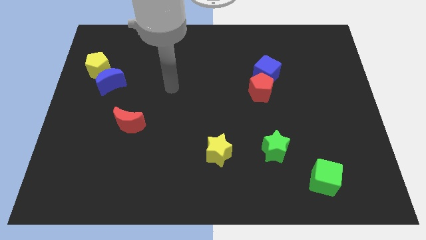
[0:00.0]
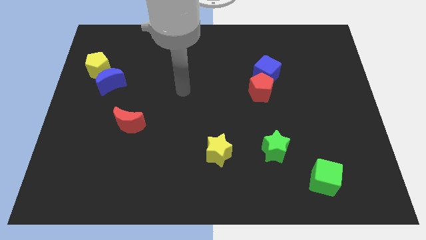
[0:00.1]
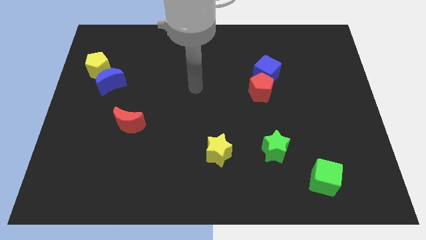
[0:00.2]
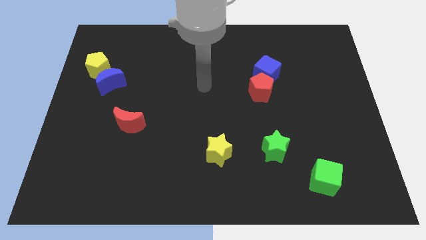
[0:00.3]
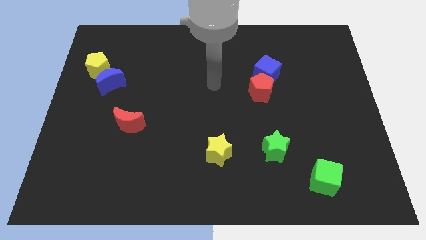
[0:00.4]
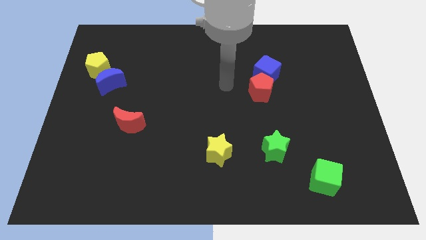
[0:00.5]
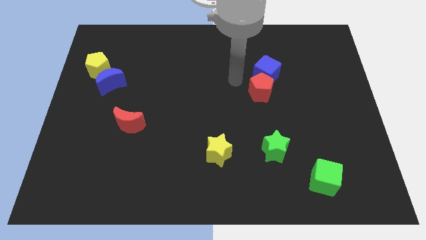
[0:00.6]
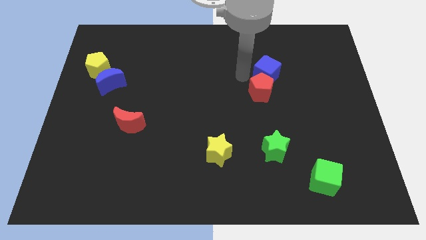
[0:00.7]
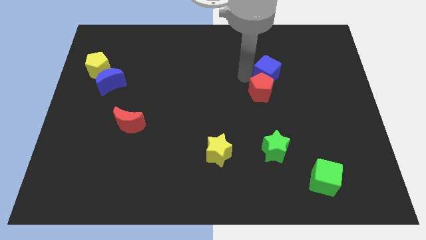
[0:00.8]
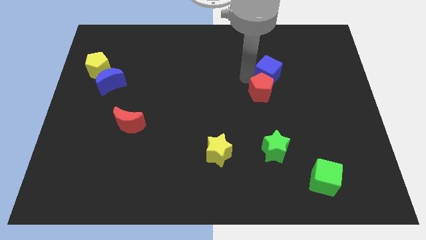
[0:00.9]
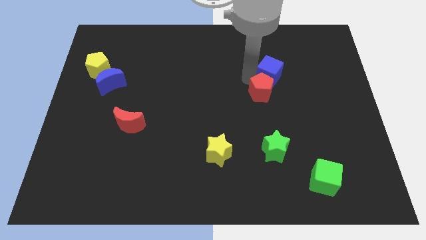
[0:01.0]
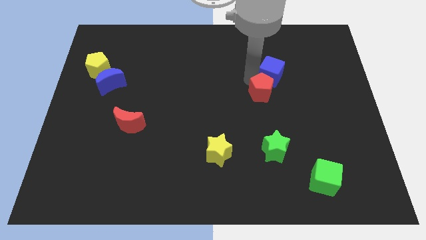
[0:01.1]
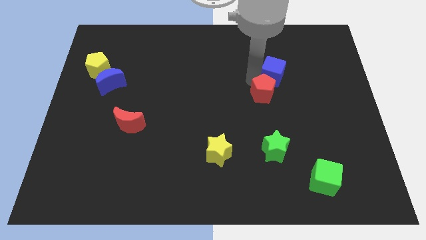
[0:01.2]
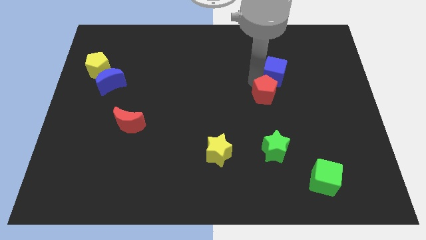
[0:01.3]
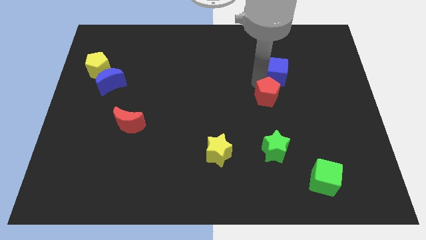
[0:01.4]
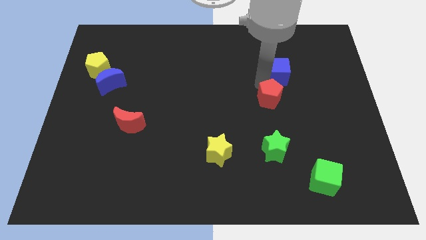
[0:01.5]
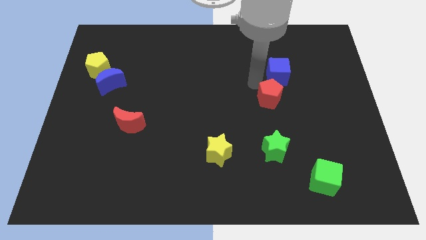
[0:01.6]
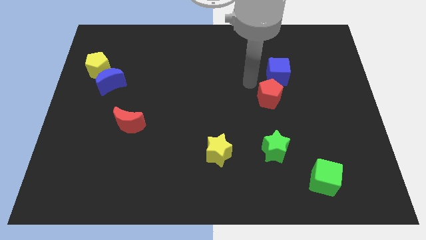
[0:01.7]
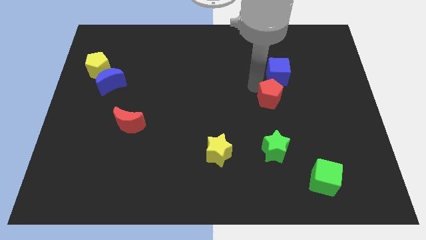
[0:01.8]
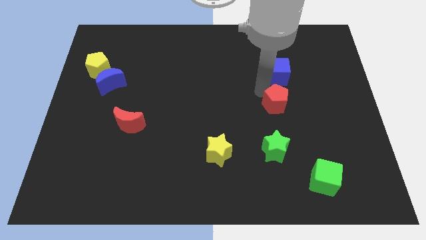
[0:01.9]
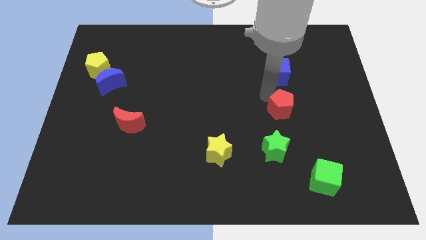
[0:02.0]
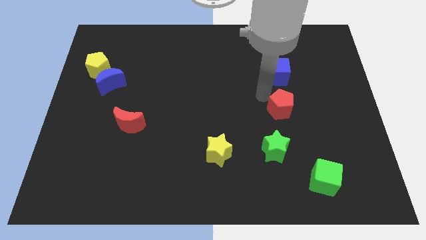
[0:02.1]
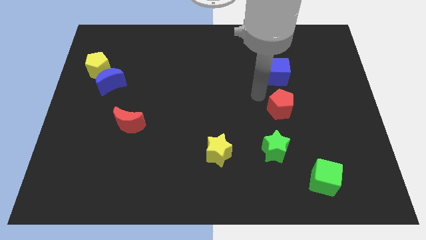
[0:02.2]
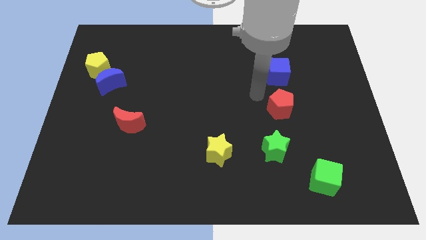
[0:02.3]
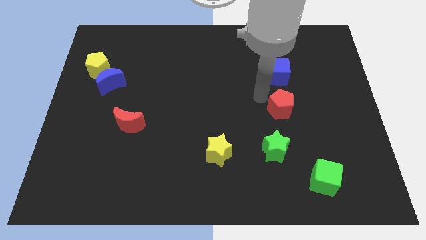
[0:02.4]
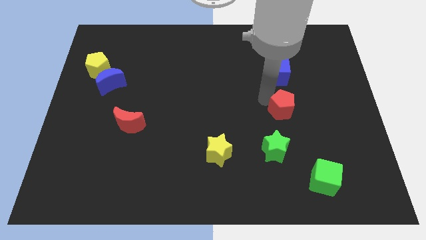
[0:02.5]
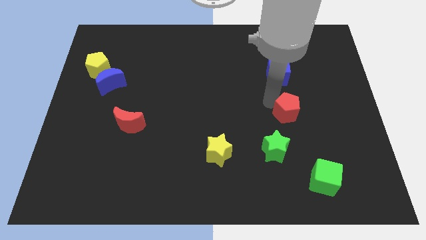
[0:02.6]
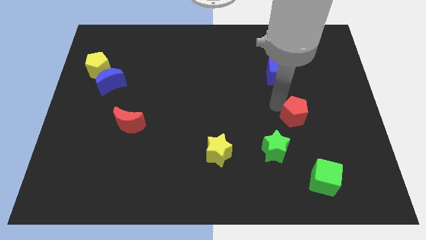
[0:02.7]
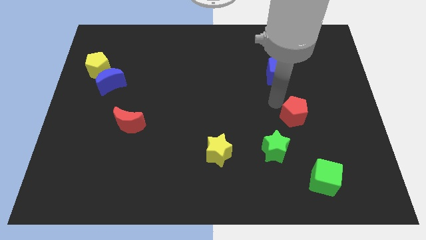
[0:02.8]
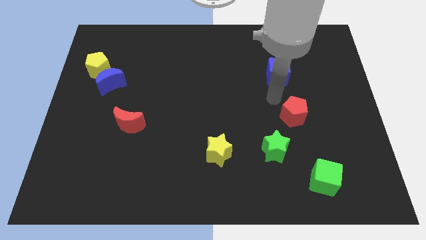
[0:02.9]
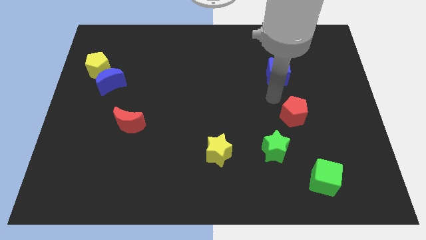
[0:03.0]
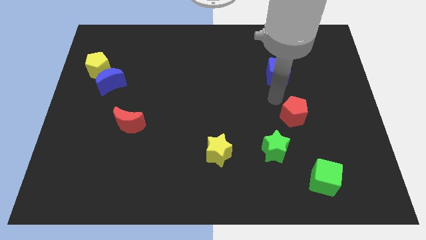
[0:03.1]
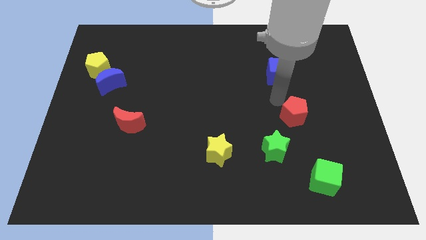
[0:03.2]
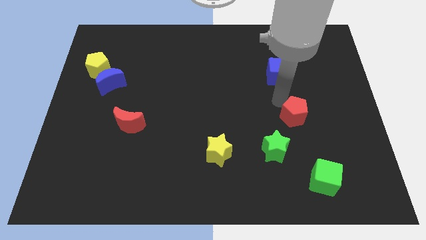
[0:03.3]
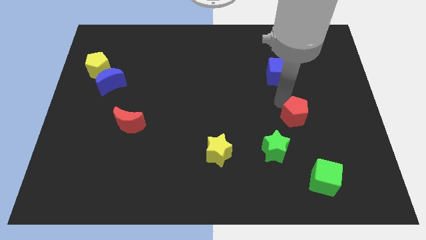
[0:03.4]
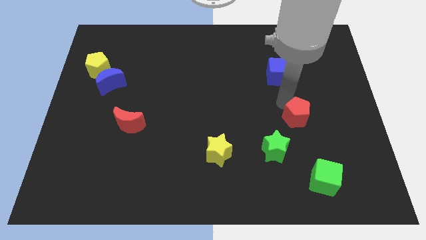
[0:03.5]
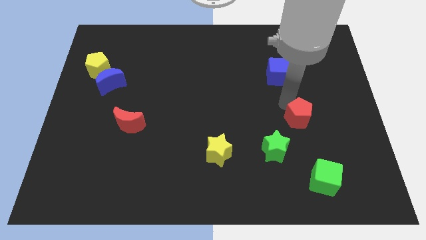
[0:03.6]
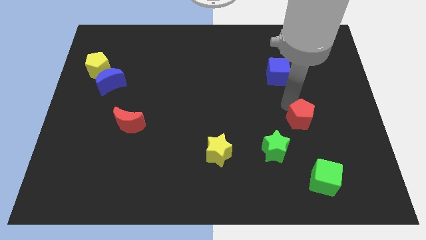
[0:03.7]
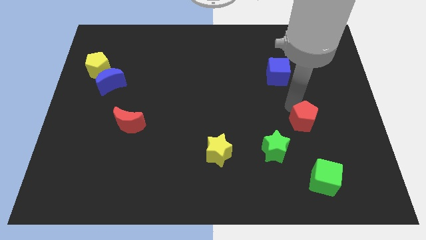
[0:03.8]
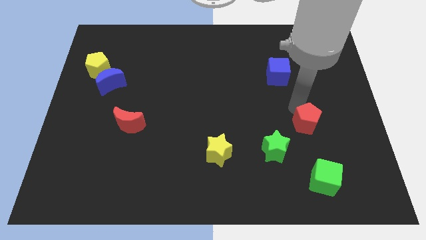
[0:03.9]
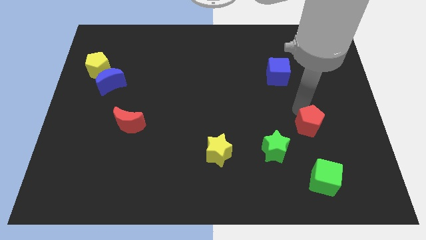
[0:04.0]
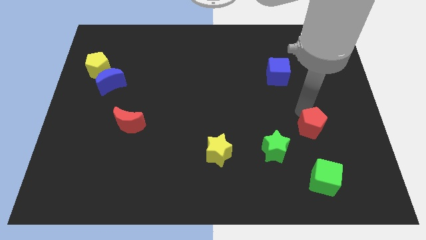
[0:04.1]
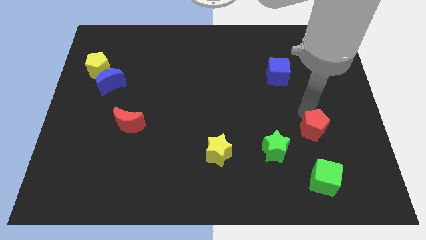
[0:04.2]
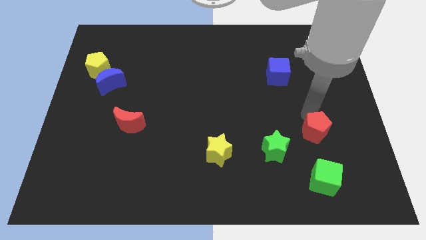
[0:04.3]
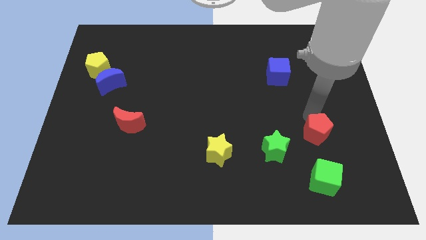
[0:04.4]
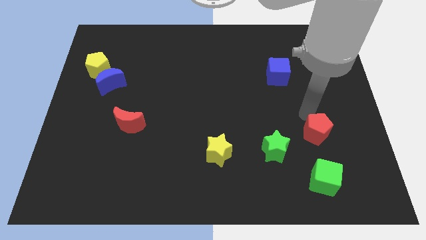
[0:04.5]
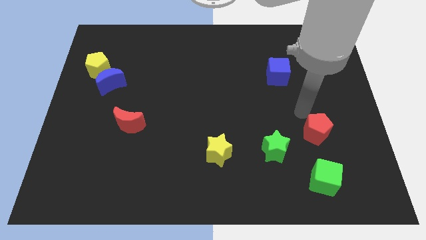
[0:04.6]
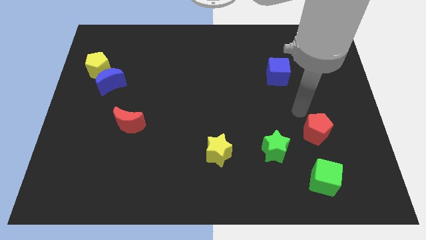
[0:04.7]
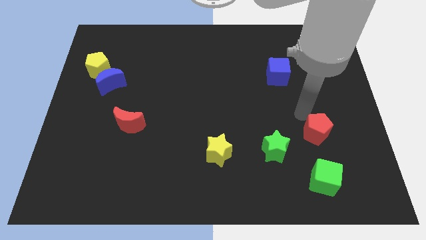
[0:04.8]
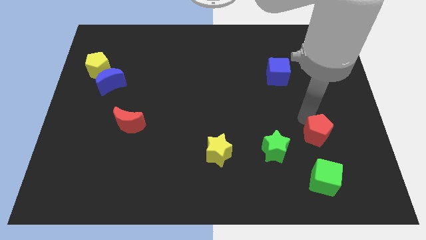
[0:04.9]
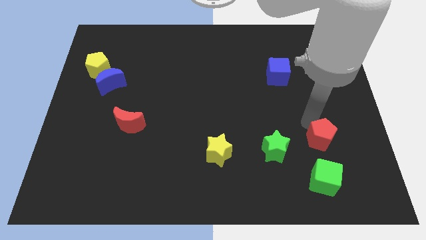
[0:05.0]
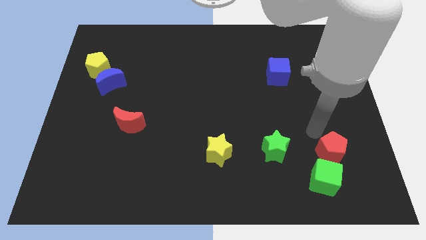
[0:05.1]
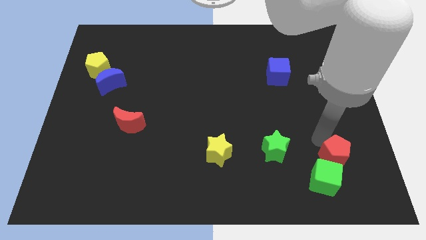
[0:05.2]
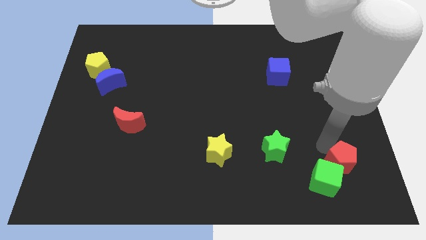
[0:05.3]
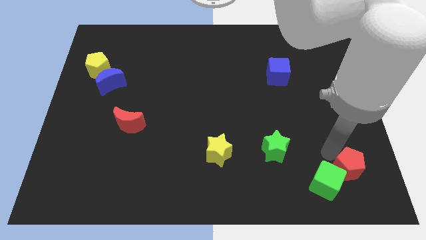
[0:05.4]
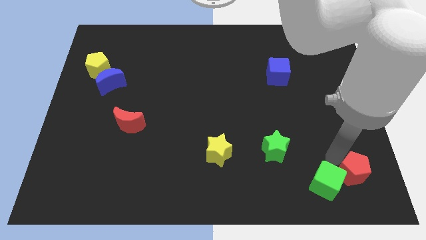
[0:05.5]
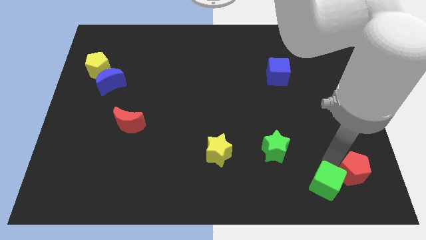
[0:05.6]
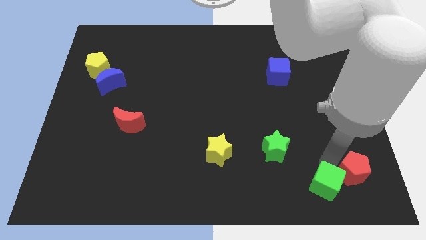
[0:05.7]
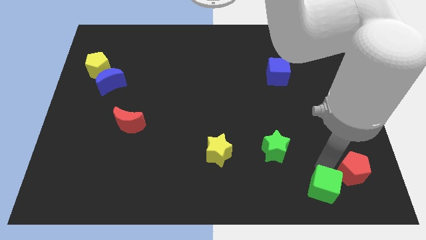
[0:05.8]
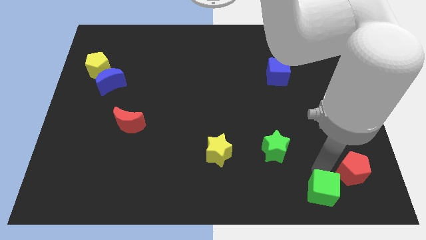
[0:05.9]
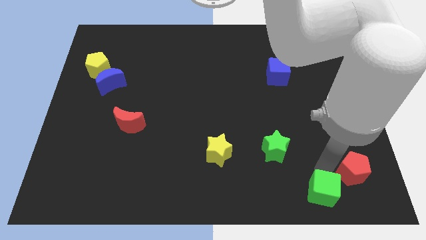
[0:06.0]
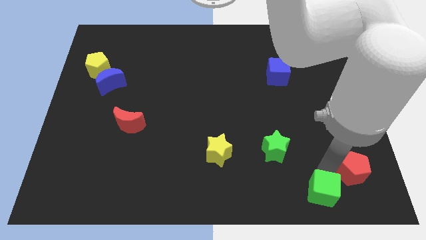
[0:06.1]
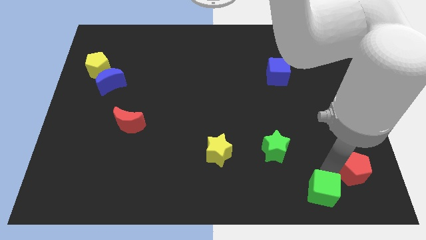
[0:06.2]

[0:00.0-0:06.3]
put the red pentagon to the bottom right corner

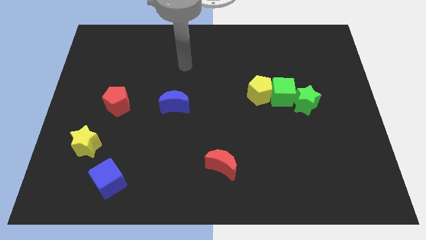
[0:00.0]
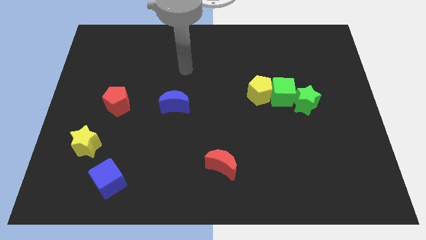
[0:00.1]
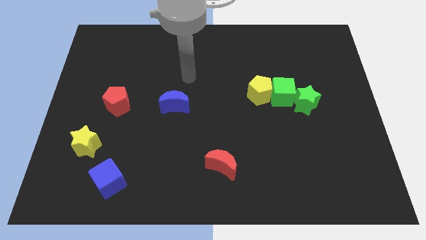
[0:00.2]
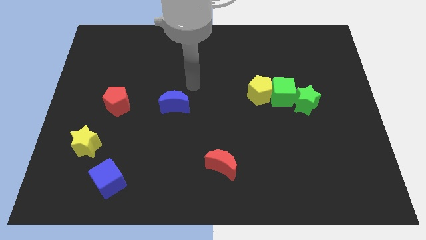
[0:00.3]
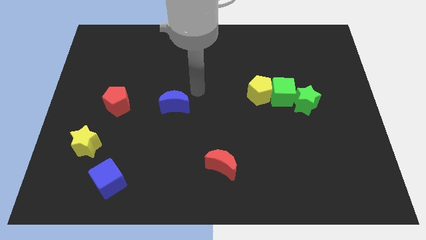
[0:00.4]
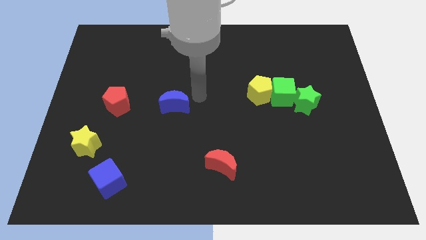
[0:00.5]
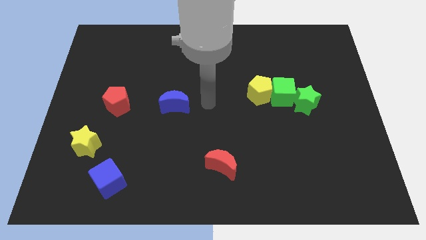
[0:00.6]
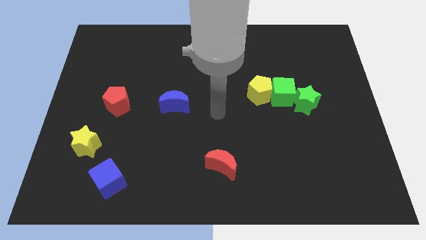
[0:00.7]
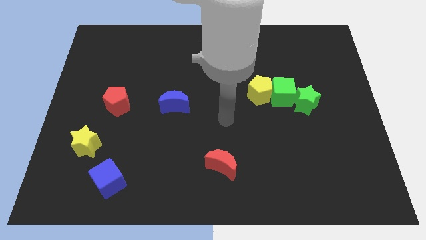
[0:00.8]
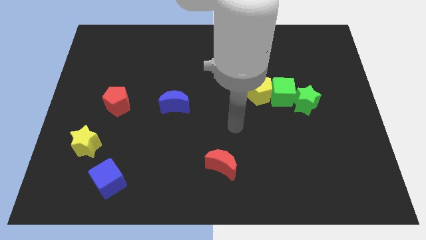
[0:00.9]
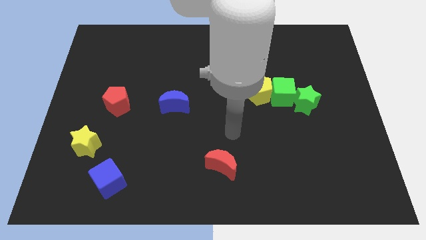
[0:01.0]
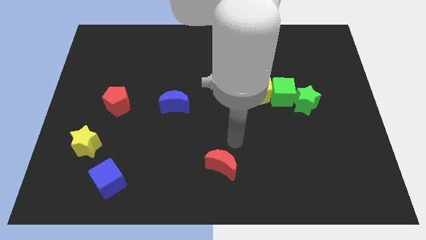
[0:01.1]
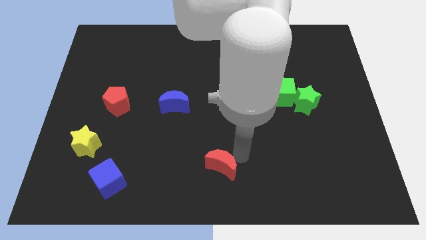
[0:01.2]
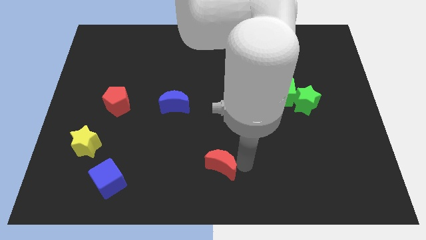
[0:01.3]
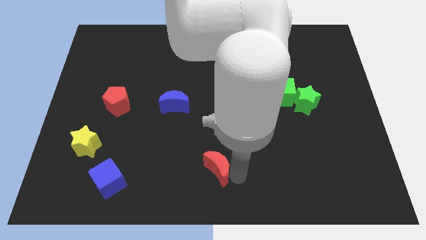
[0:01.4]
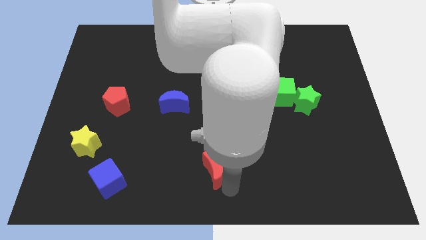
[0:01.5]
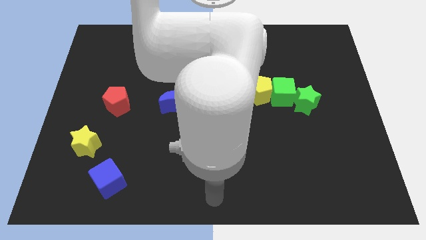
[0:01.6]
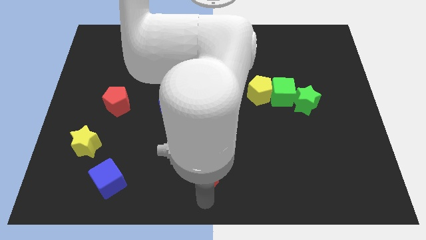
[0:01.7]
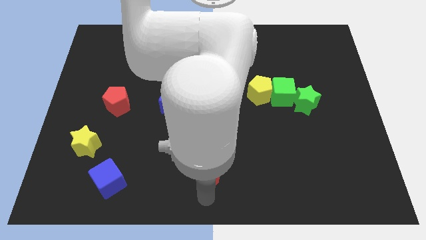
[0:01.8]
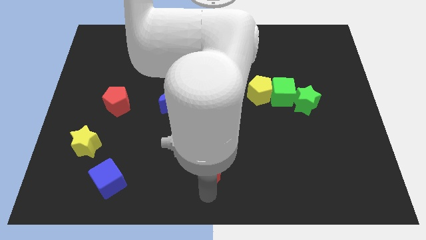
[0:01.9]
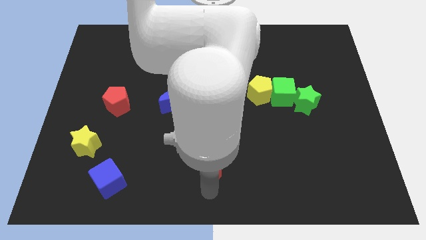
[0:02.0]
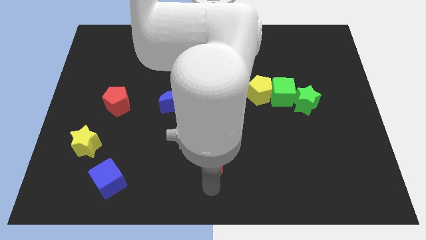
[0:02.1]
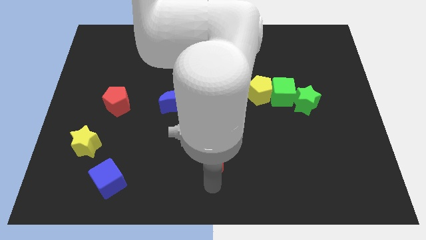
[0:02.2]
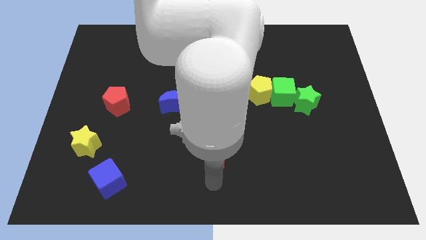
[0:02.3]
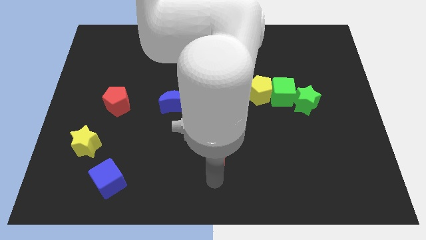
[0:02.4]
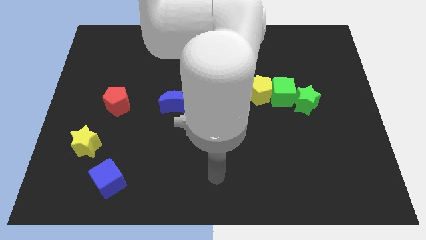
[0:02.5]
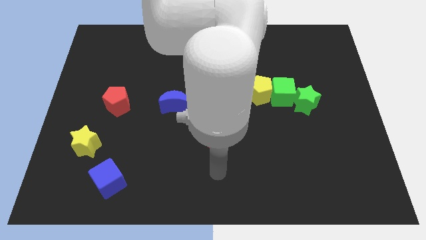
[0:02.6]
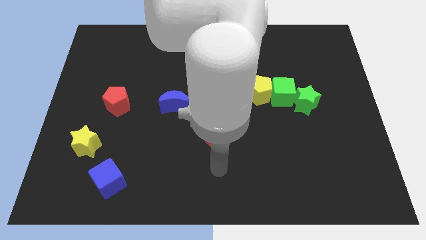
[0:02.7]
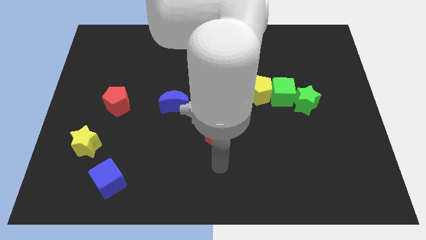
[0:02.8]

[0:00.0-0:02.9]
slide the red moon to the middle
